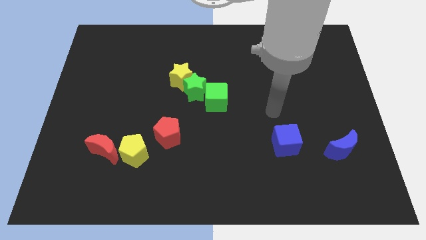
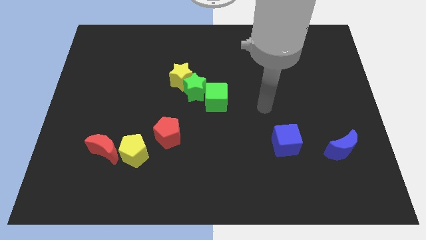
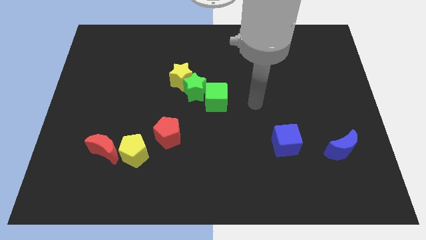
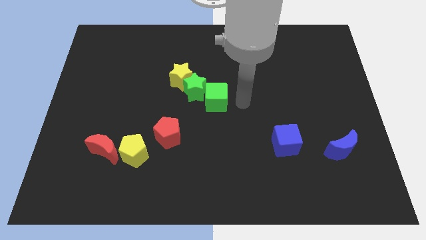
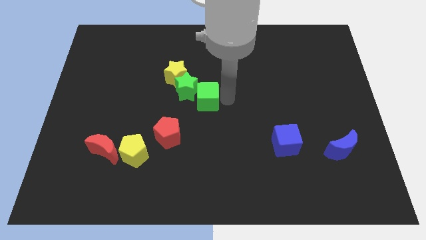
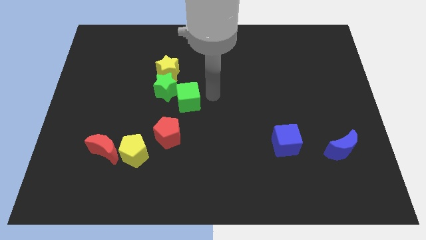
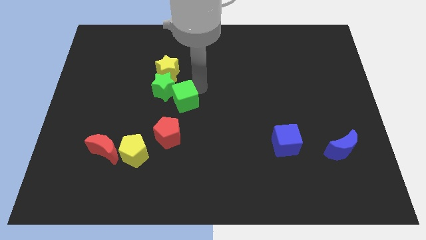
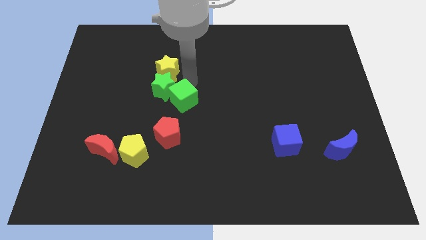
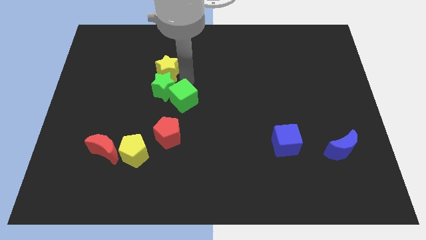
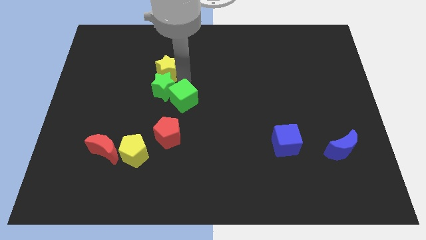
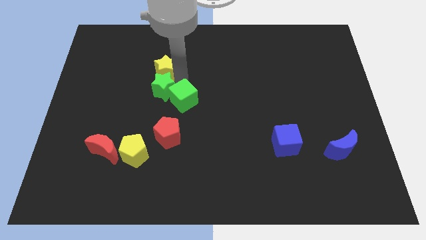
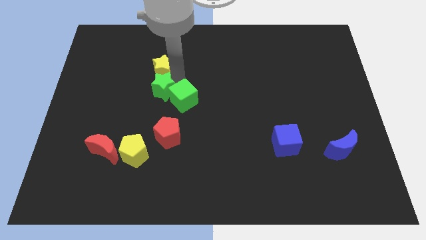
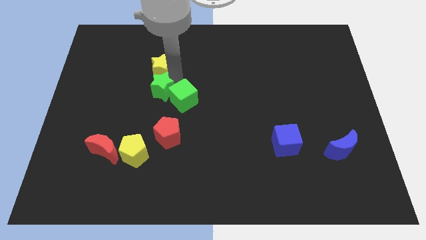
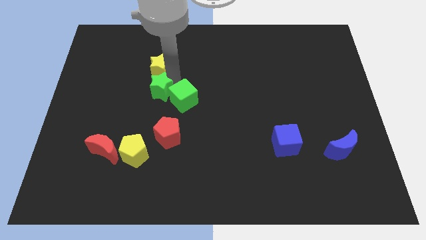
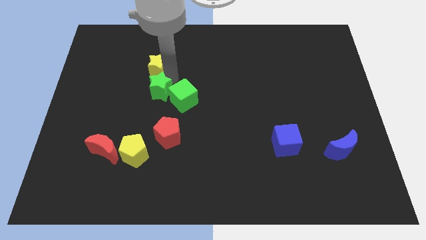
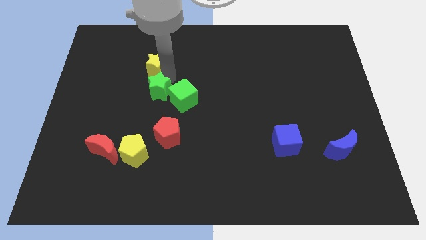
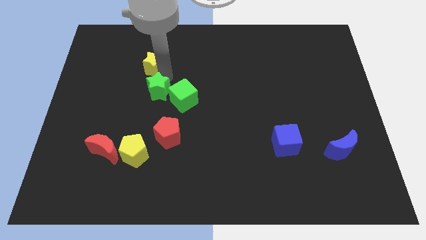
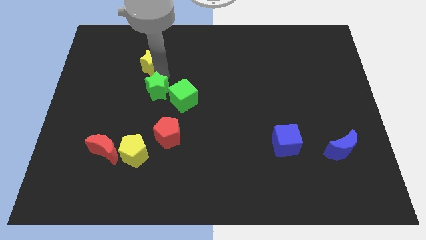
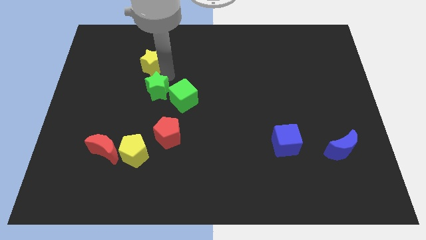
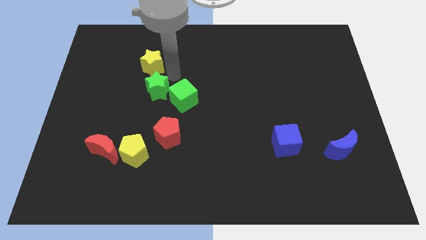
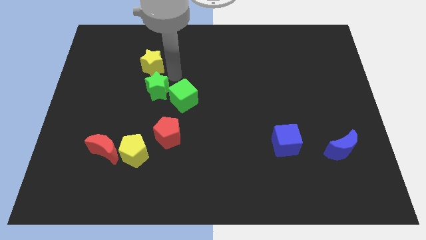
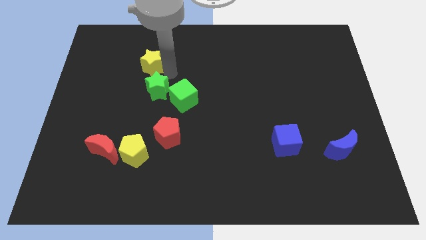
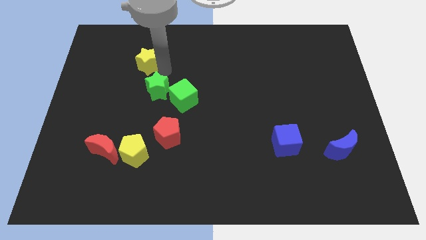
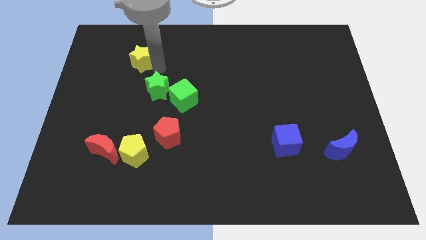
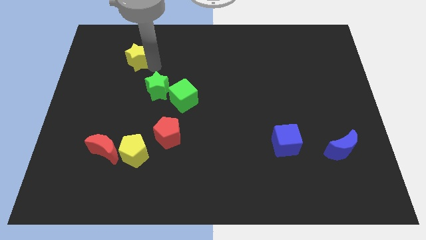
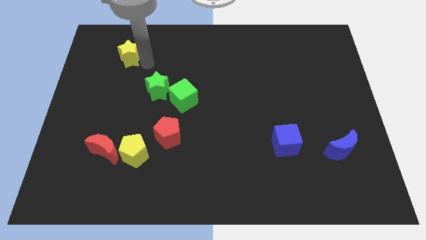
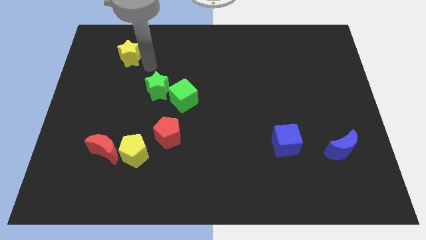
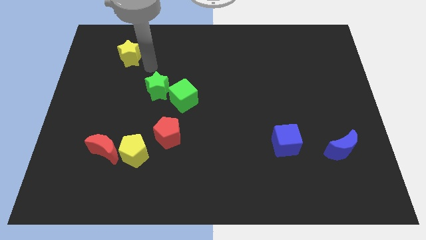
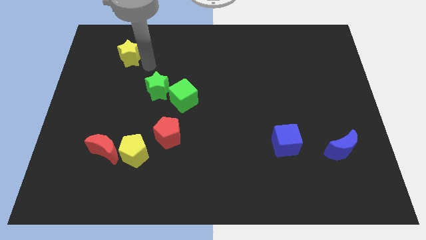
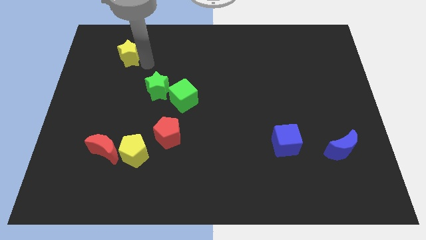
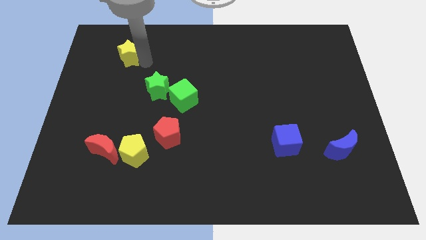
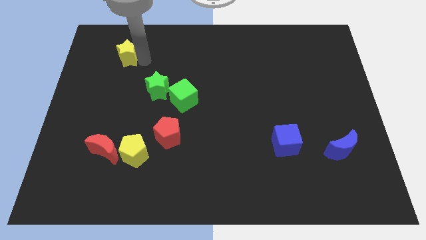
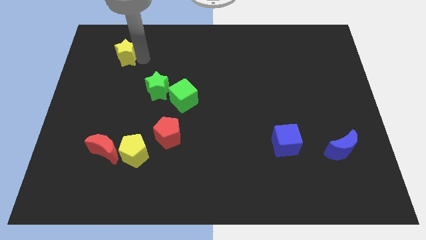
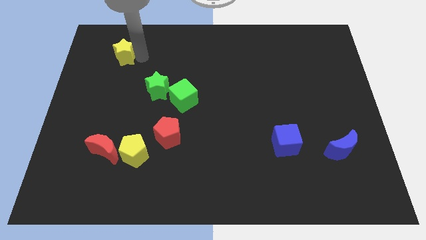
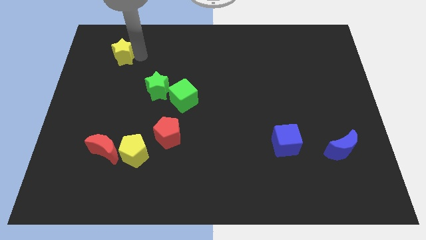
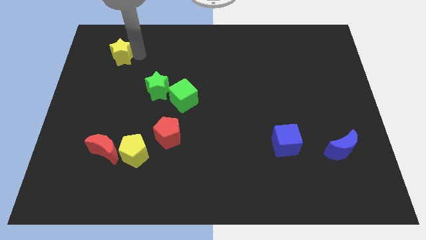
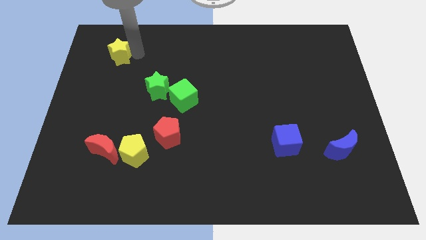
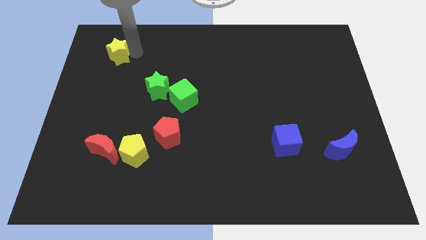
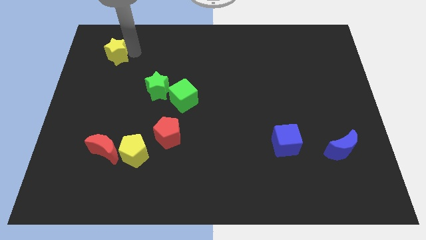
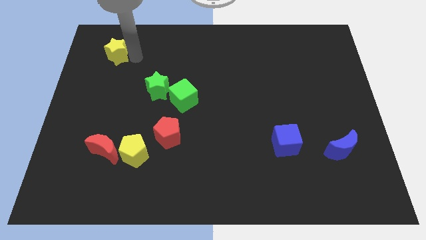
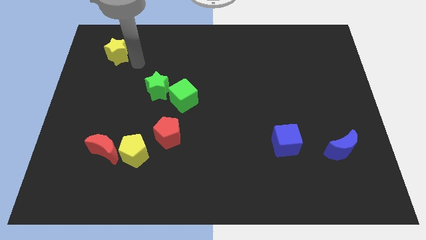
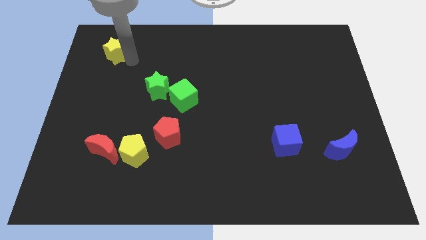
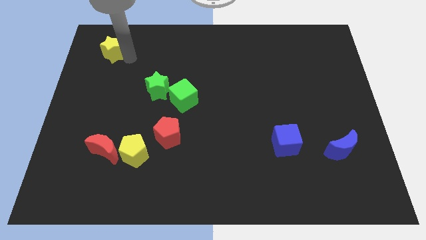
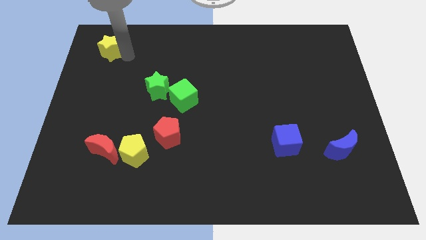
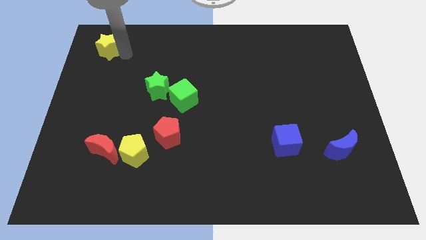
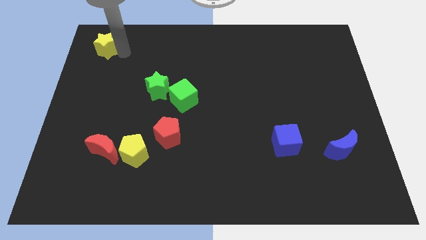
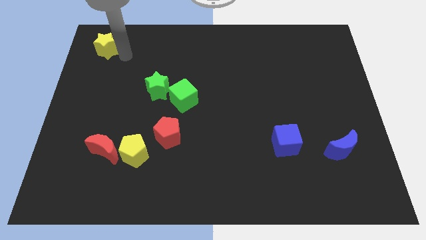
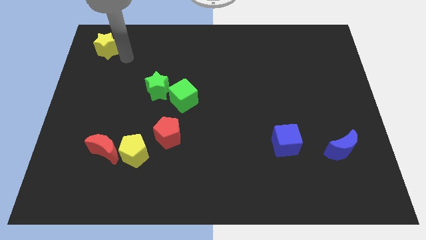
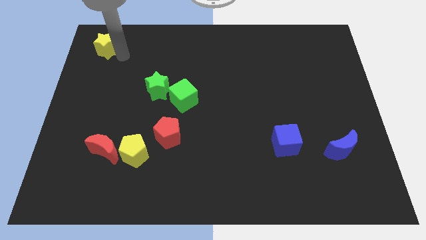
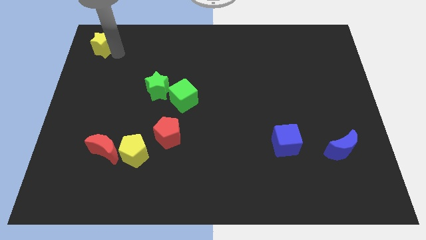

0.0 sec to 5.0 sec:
push the yellow star to the top left corner

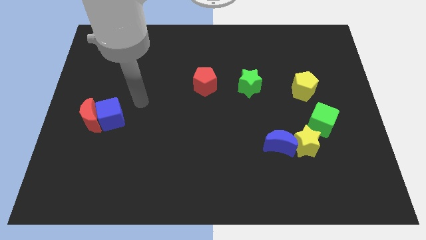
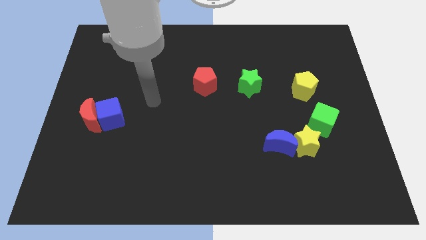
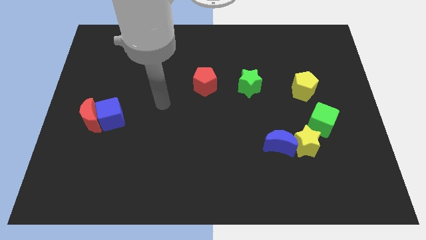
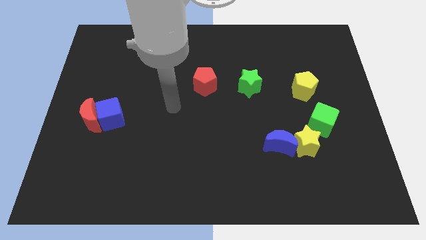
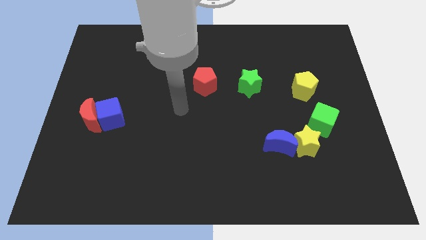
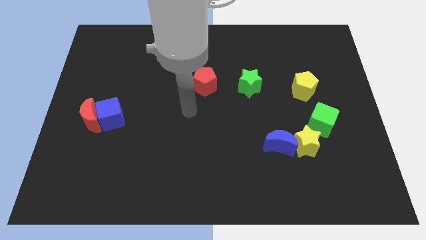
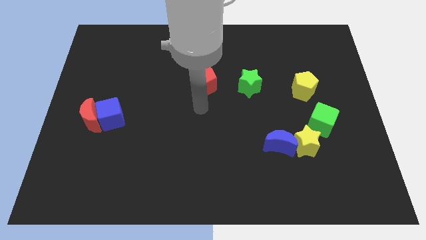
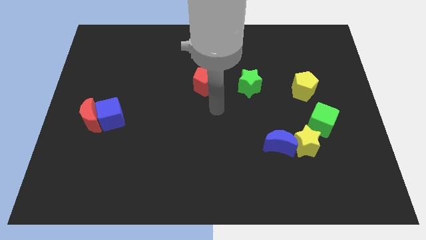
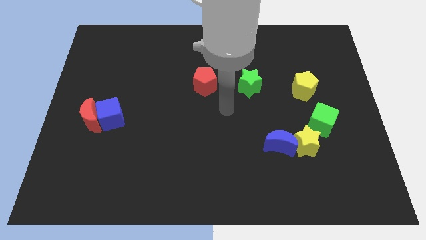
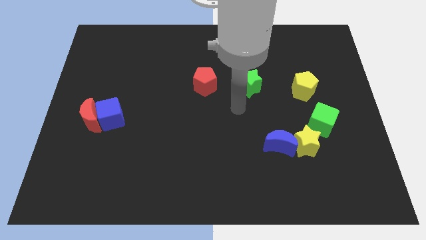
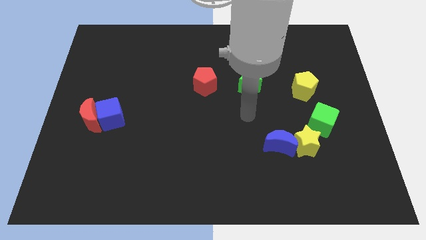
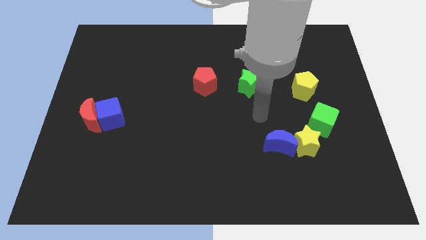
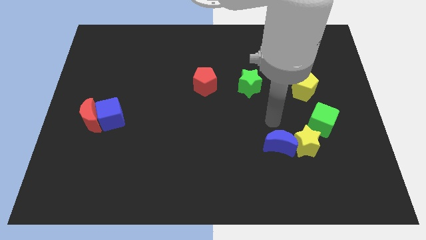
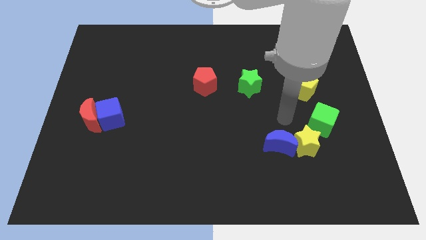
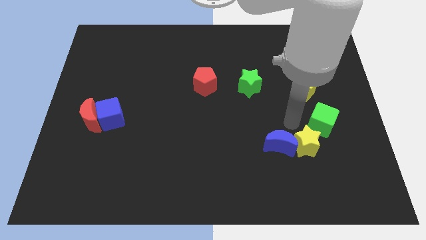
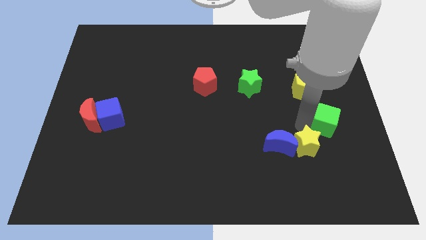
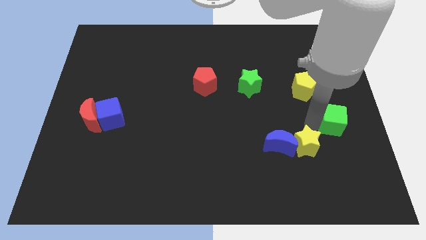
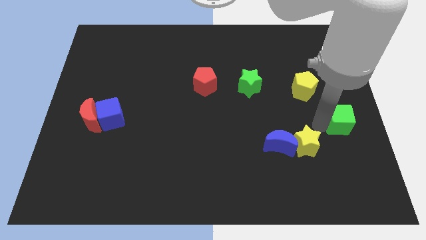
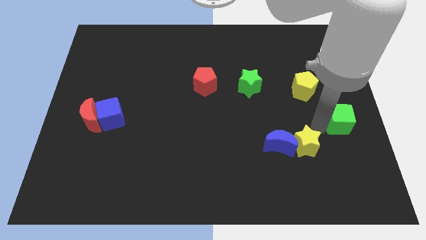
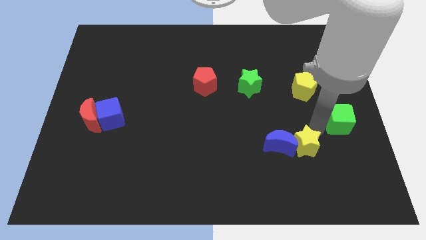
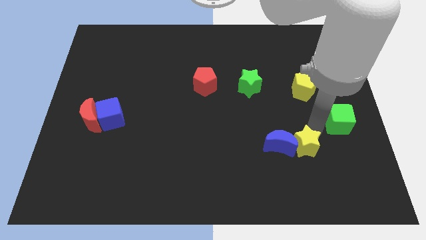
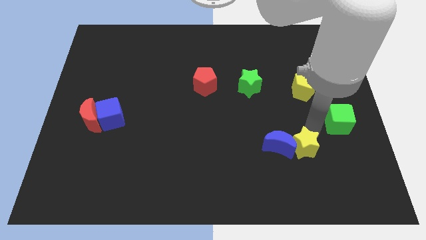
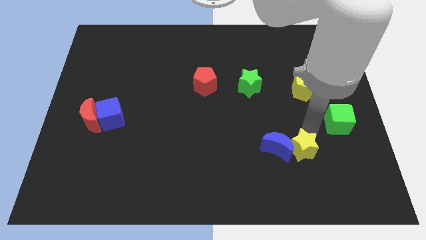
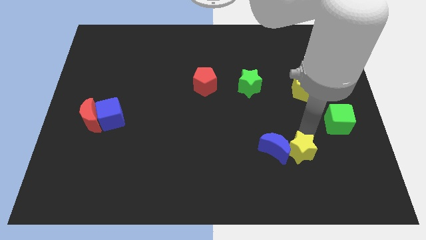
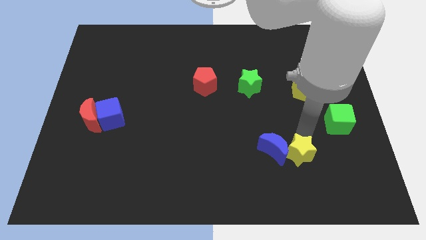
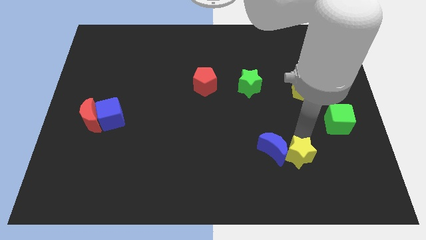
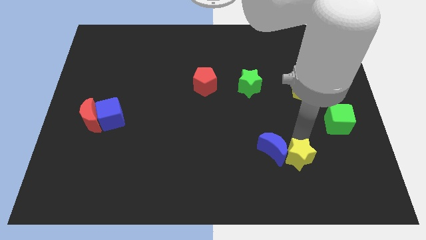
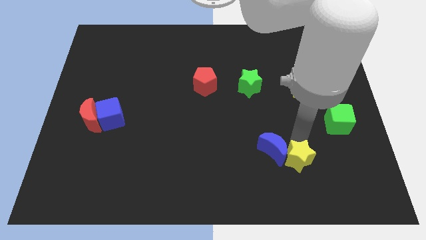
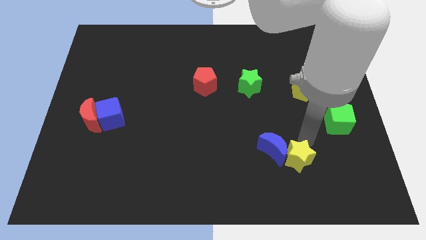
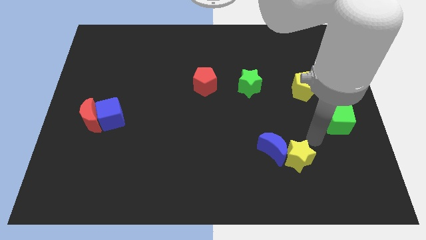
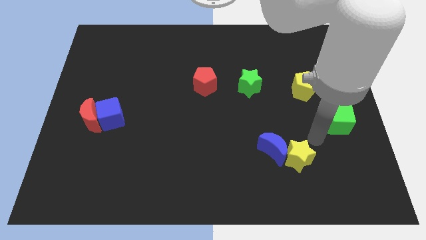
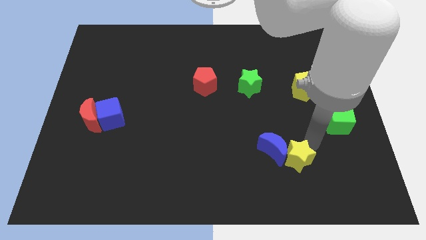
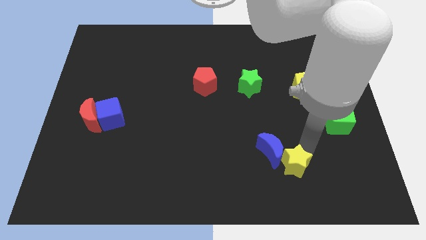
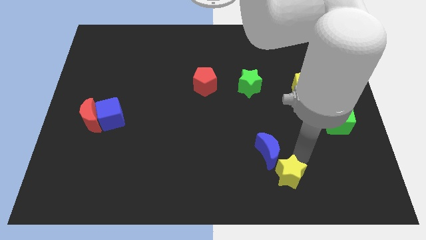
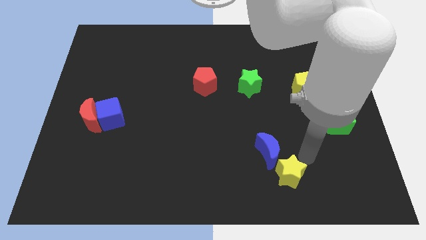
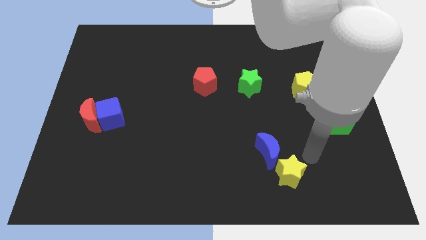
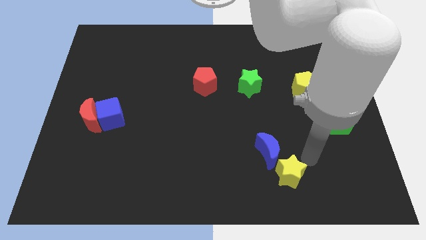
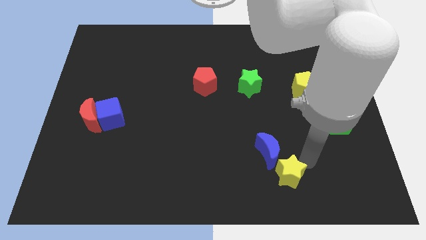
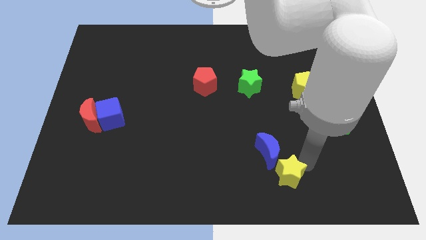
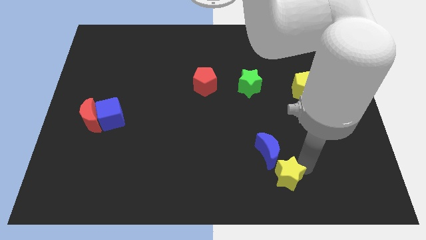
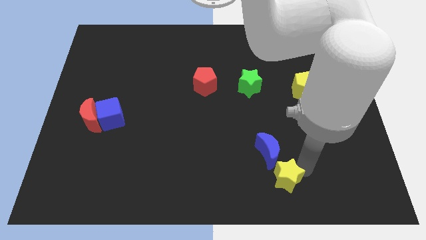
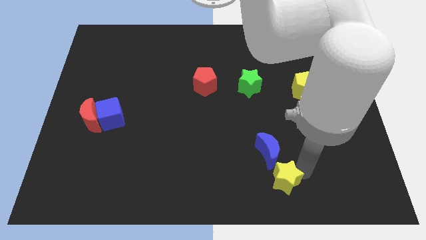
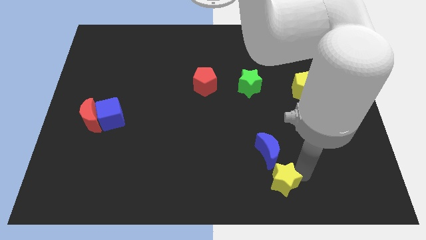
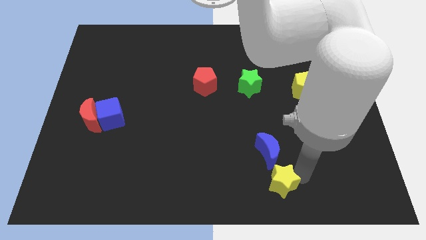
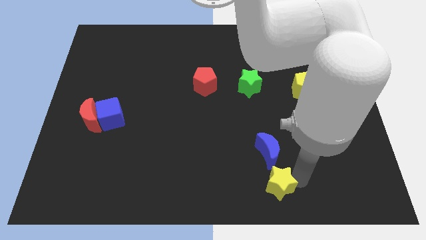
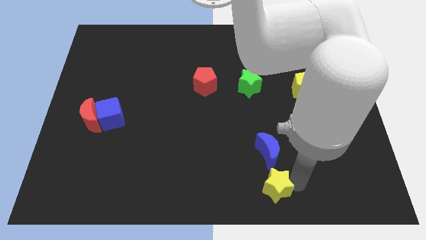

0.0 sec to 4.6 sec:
slide the yellow star to the bottom
